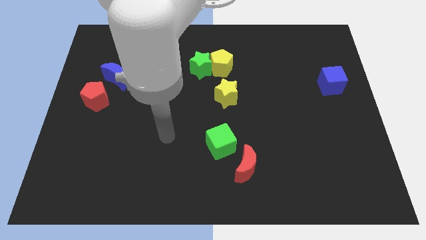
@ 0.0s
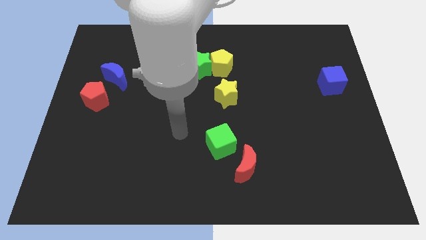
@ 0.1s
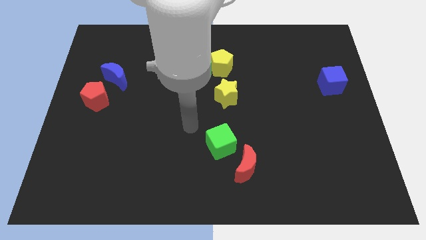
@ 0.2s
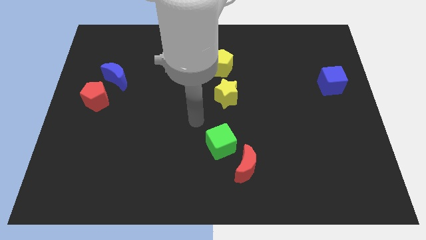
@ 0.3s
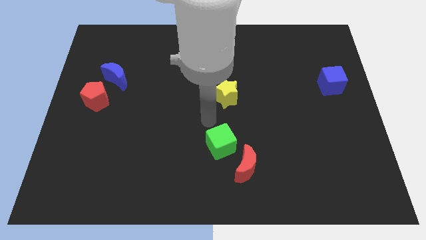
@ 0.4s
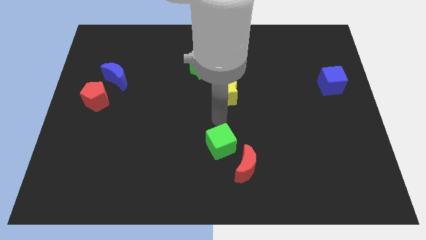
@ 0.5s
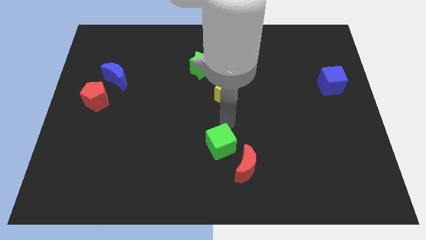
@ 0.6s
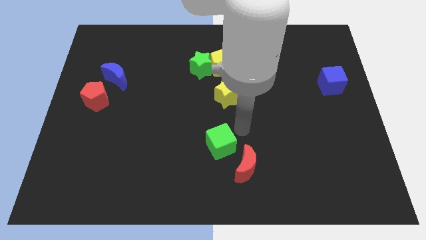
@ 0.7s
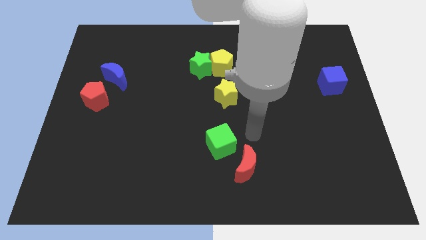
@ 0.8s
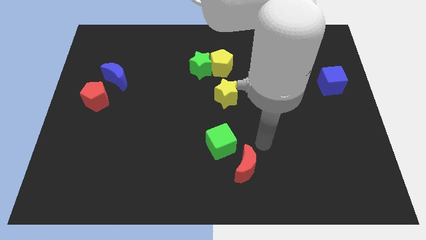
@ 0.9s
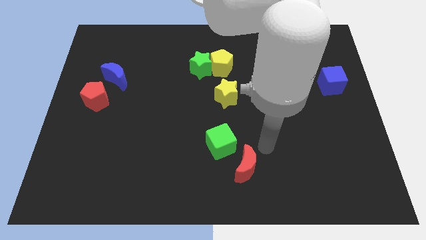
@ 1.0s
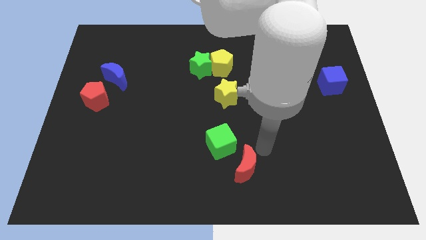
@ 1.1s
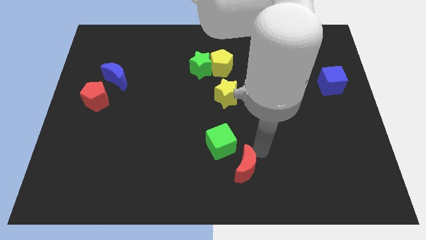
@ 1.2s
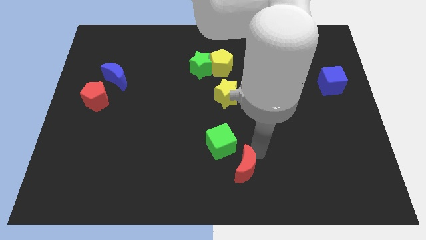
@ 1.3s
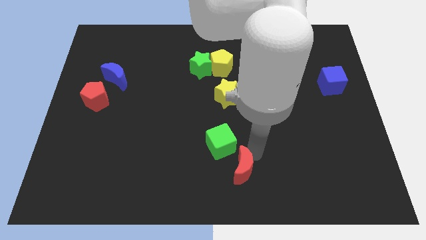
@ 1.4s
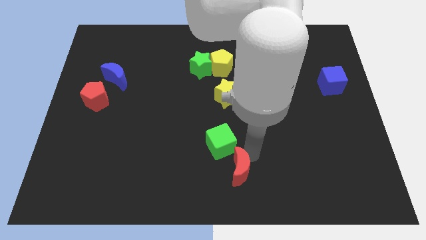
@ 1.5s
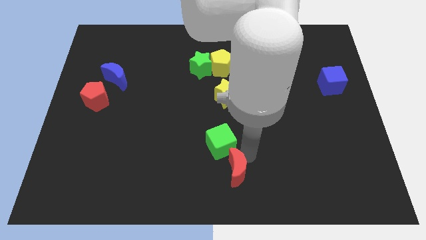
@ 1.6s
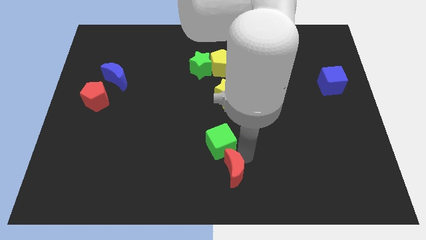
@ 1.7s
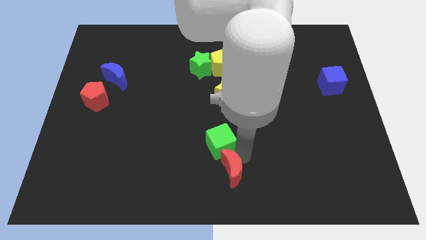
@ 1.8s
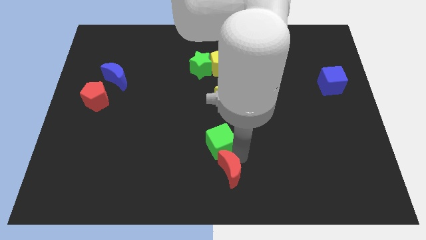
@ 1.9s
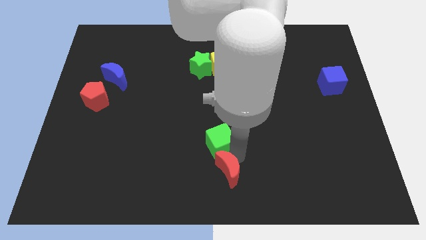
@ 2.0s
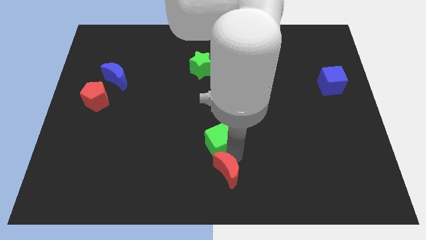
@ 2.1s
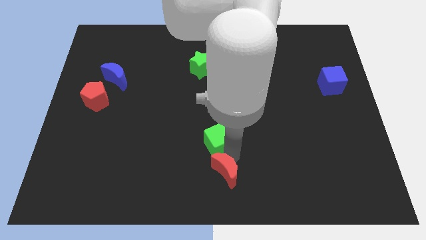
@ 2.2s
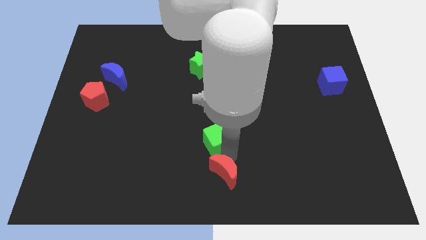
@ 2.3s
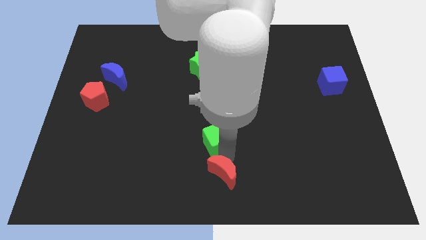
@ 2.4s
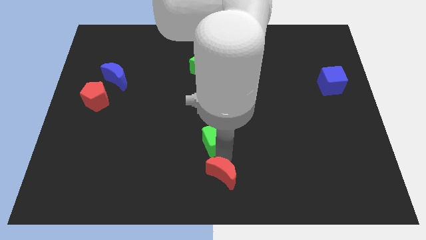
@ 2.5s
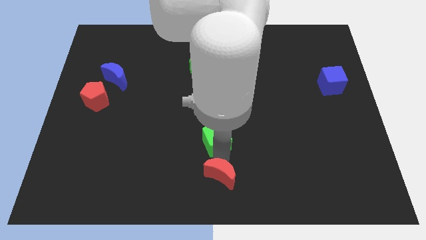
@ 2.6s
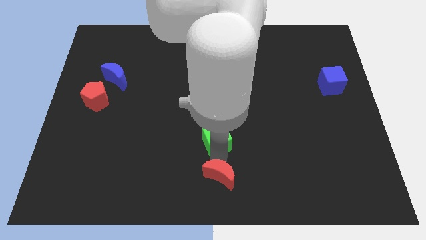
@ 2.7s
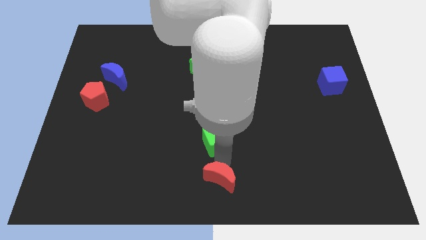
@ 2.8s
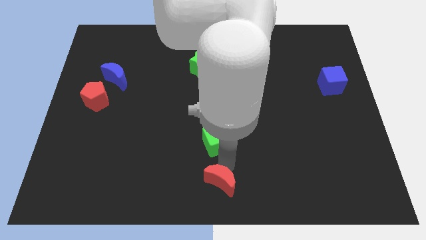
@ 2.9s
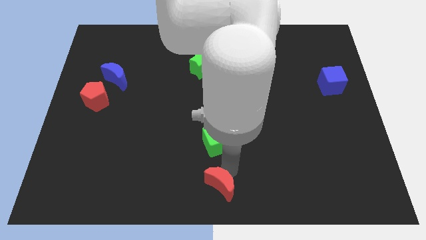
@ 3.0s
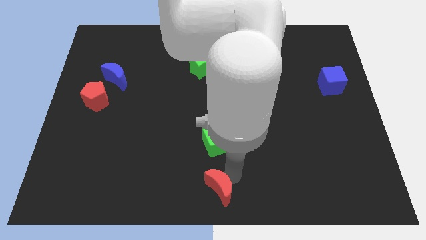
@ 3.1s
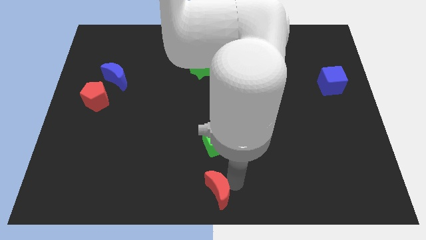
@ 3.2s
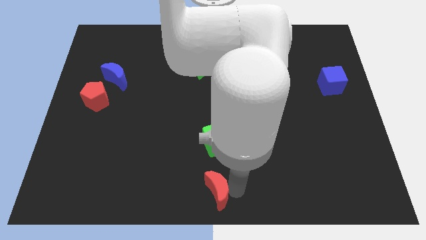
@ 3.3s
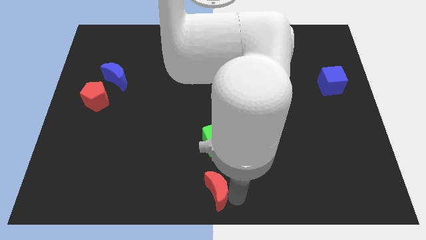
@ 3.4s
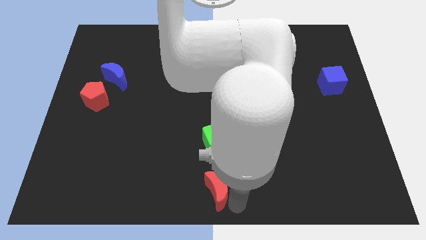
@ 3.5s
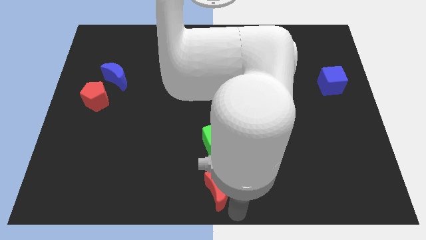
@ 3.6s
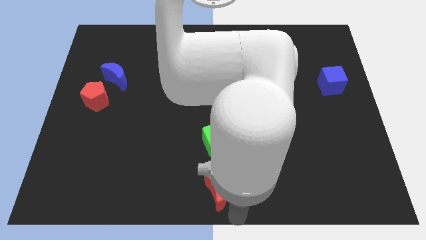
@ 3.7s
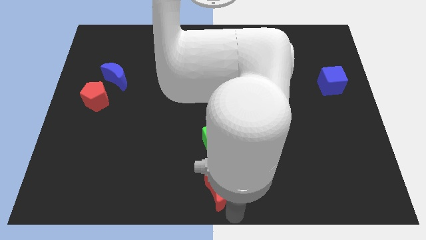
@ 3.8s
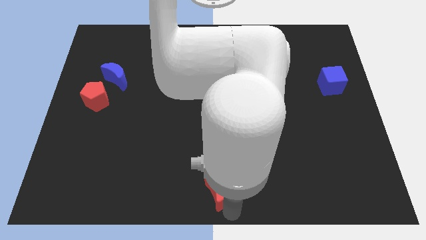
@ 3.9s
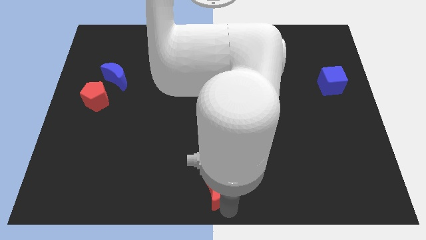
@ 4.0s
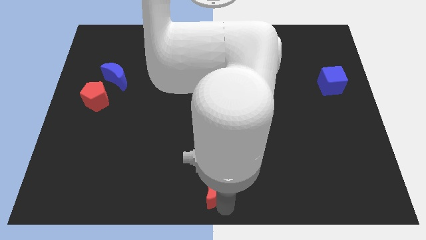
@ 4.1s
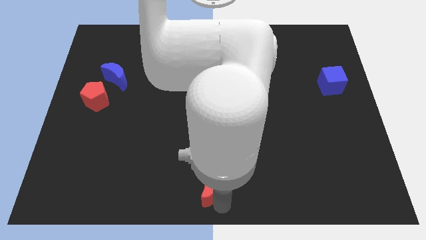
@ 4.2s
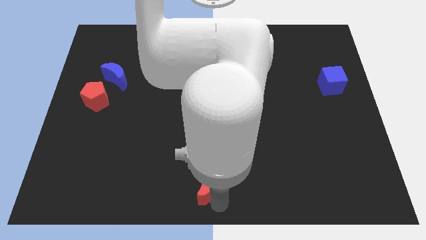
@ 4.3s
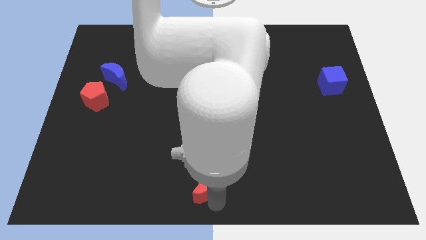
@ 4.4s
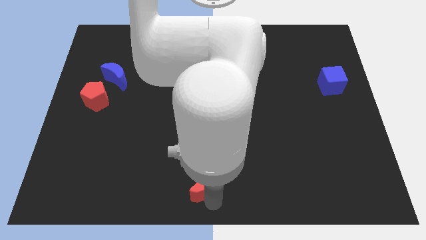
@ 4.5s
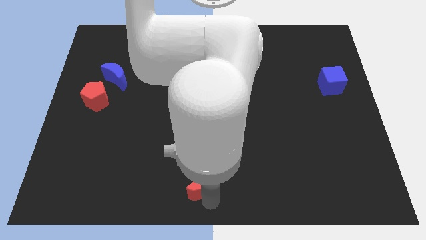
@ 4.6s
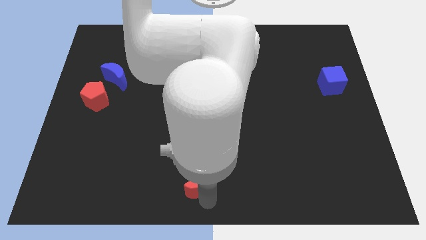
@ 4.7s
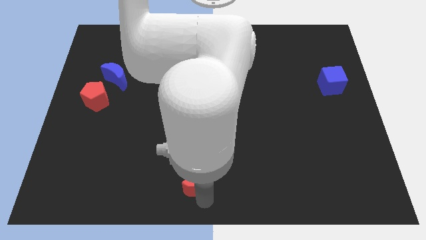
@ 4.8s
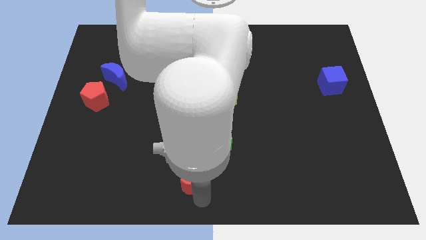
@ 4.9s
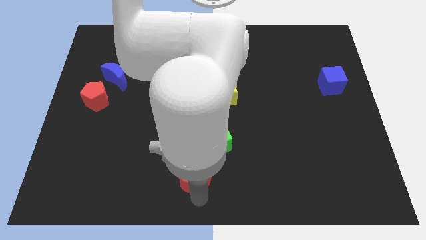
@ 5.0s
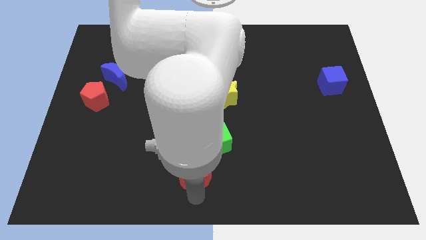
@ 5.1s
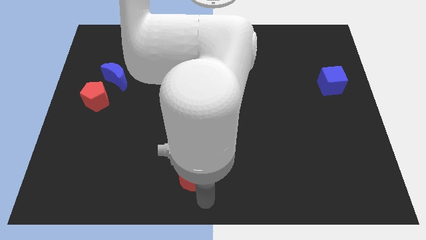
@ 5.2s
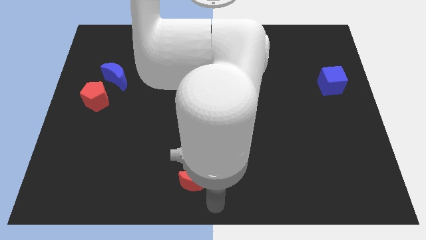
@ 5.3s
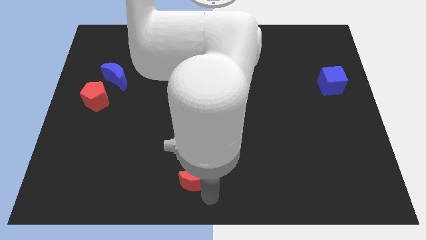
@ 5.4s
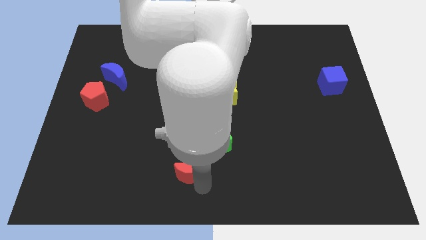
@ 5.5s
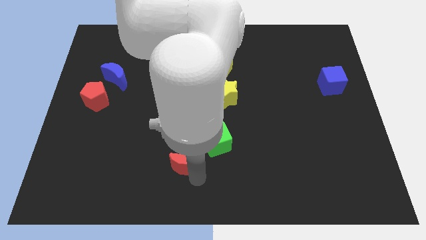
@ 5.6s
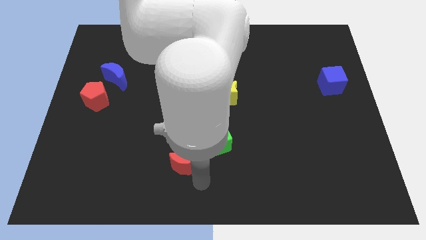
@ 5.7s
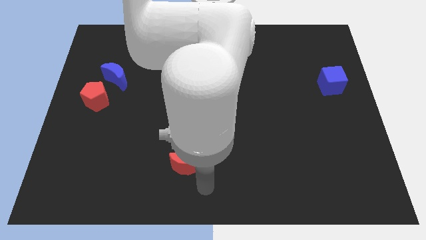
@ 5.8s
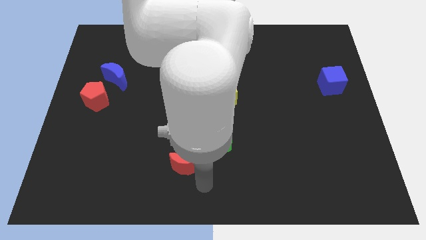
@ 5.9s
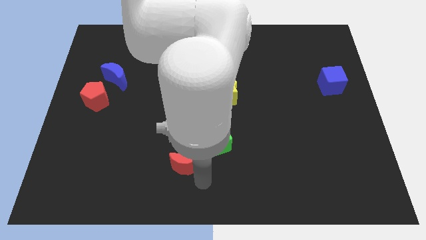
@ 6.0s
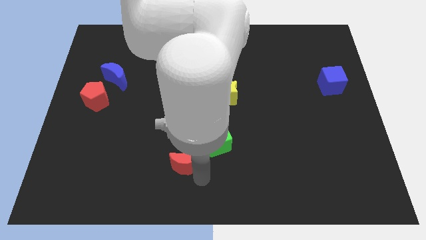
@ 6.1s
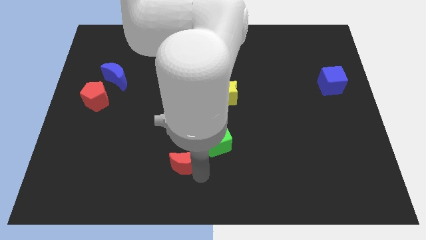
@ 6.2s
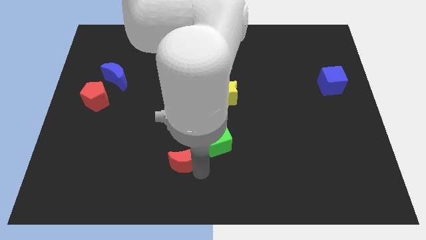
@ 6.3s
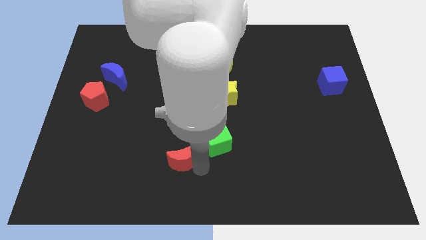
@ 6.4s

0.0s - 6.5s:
push the red moon to the left side of the green cube

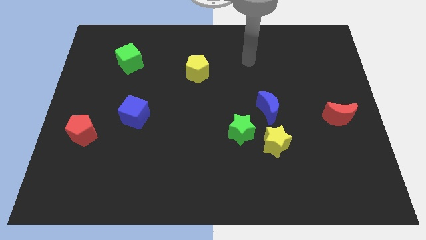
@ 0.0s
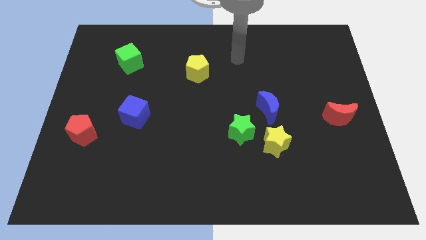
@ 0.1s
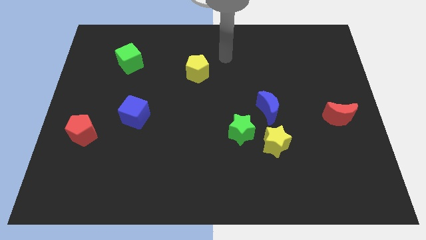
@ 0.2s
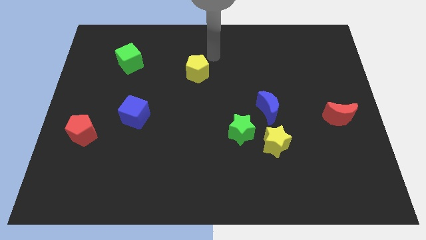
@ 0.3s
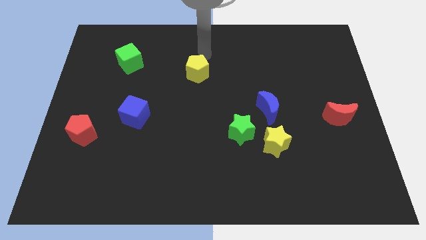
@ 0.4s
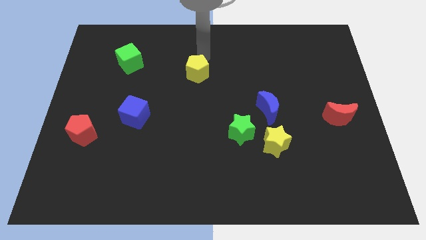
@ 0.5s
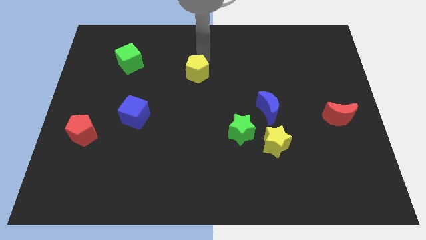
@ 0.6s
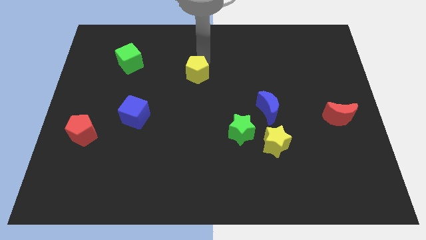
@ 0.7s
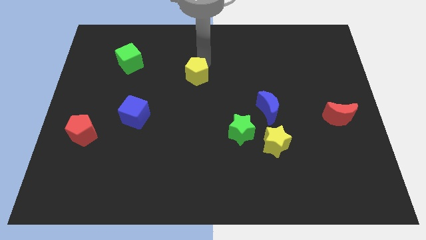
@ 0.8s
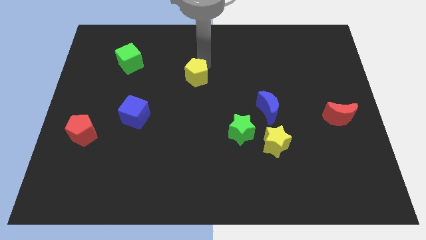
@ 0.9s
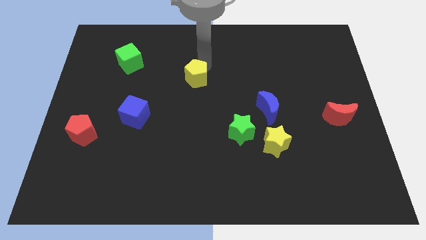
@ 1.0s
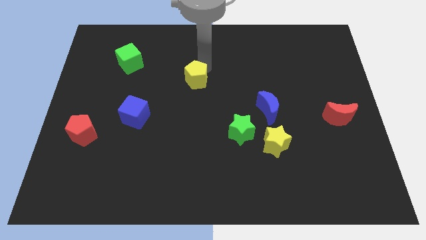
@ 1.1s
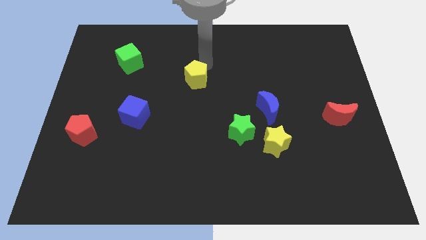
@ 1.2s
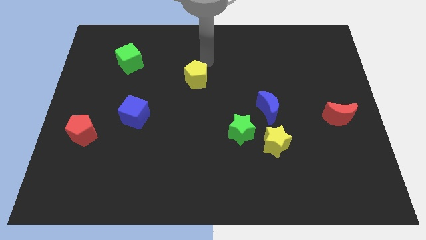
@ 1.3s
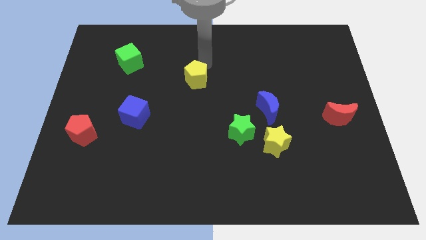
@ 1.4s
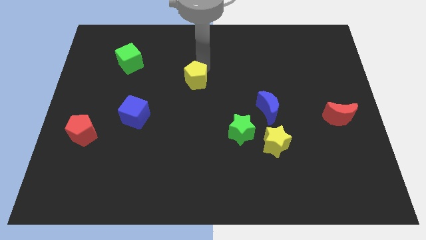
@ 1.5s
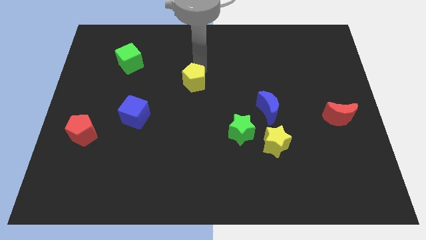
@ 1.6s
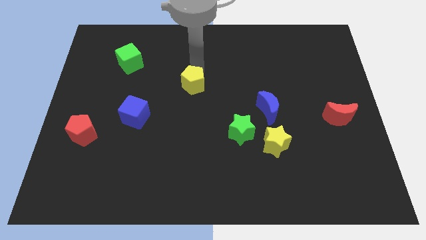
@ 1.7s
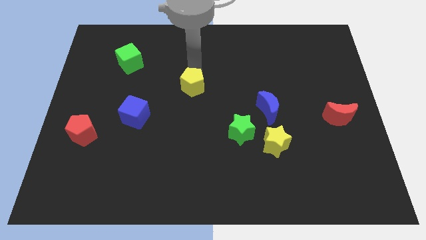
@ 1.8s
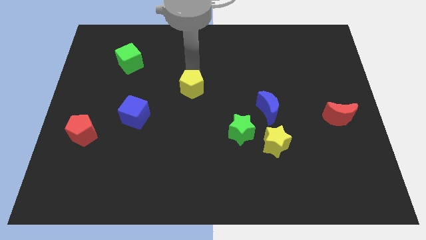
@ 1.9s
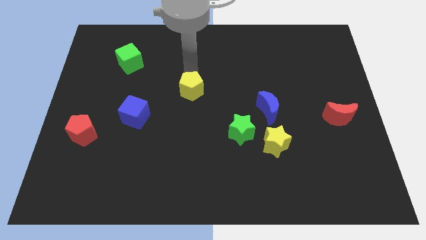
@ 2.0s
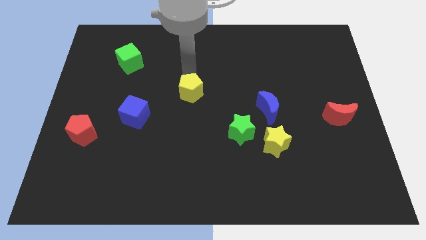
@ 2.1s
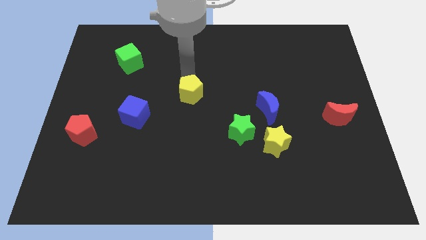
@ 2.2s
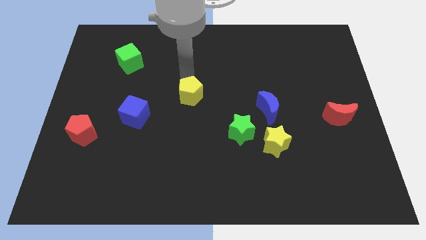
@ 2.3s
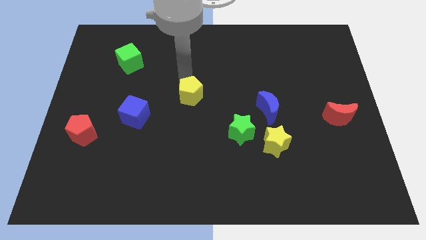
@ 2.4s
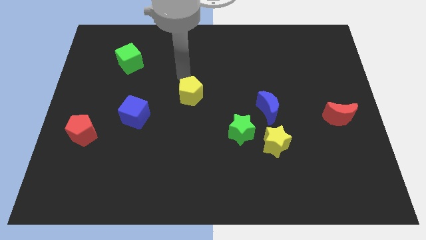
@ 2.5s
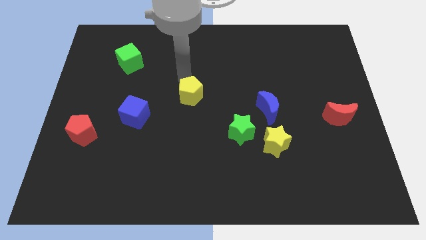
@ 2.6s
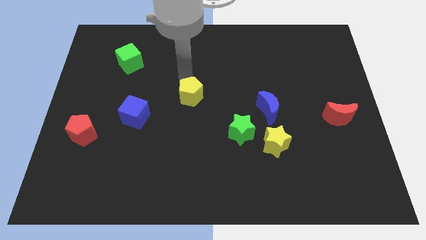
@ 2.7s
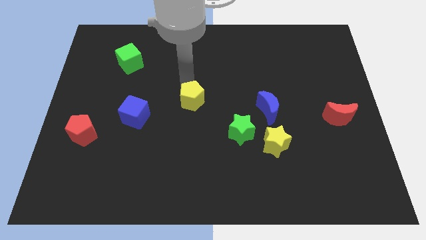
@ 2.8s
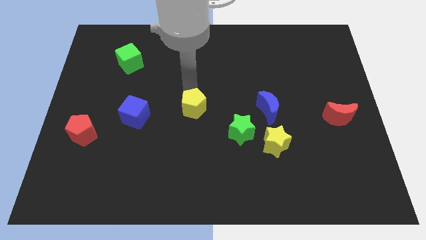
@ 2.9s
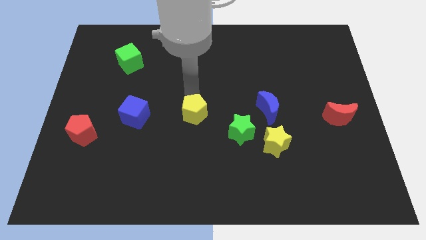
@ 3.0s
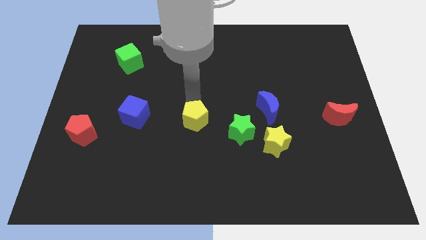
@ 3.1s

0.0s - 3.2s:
move the yellow pentagon left of the green star
